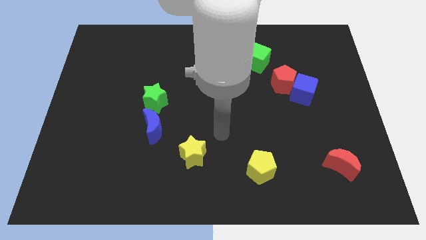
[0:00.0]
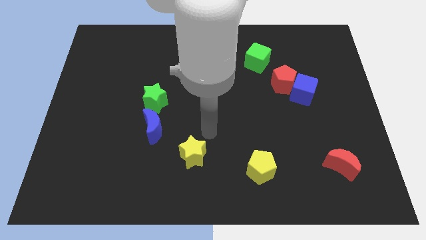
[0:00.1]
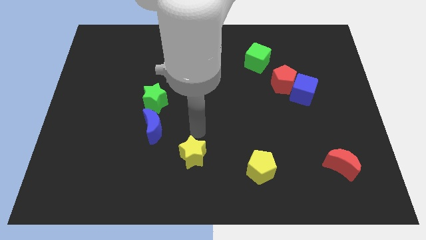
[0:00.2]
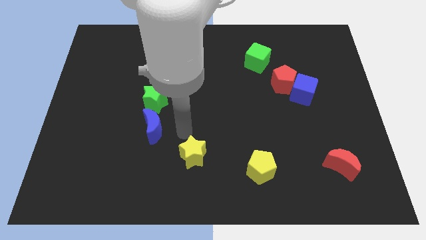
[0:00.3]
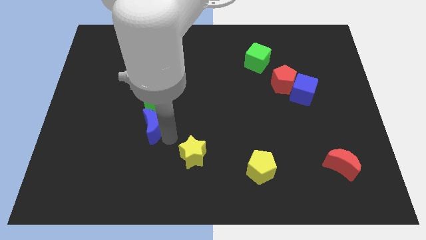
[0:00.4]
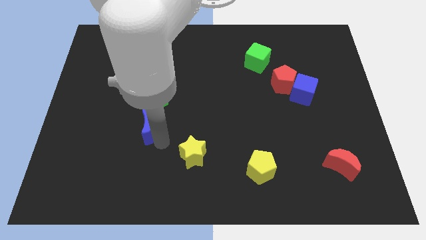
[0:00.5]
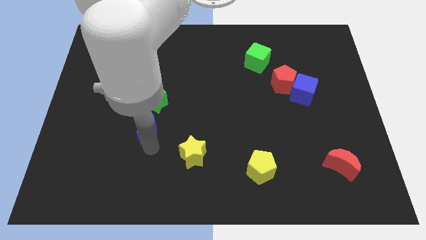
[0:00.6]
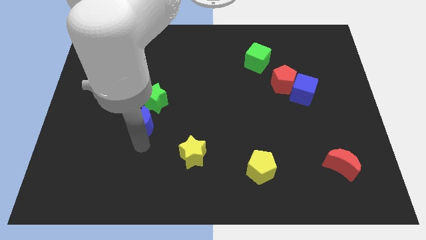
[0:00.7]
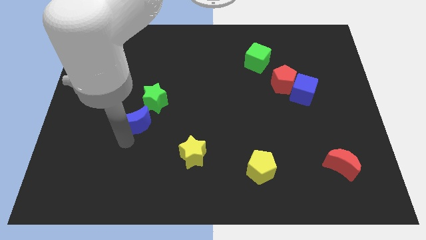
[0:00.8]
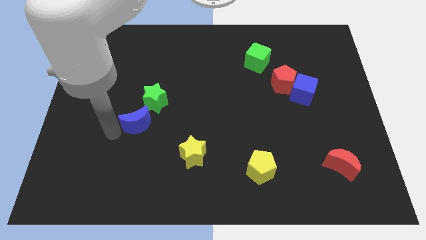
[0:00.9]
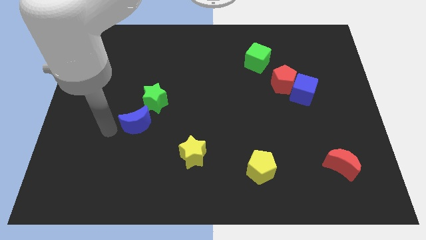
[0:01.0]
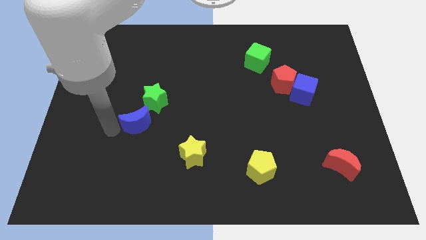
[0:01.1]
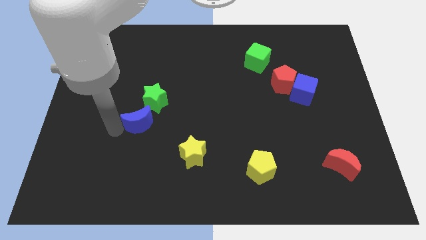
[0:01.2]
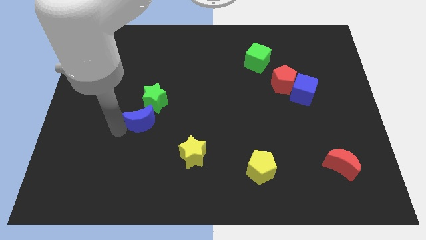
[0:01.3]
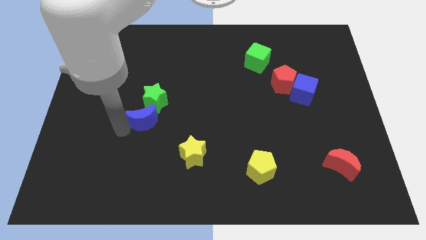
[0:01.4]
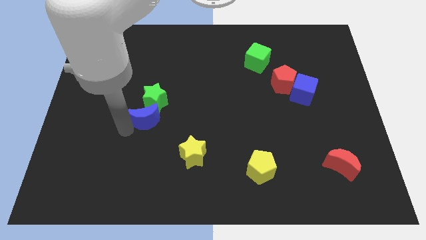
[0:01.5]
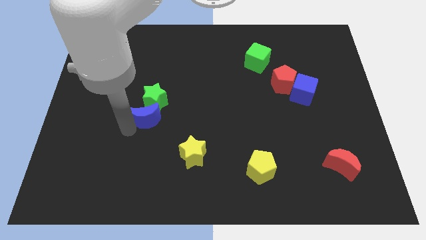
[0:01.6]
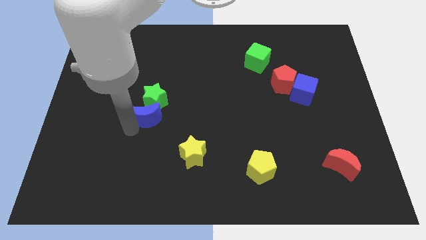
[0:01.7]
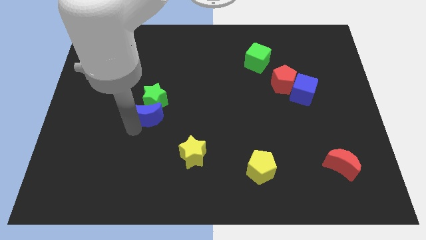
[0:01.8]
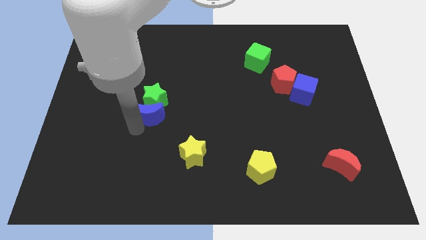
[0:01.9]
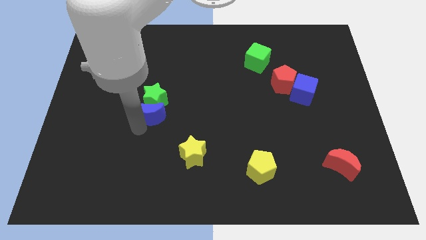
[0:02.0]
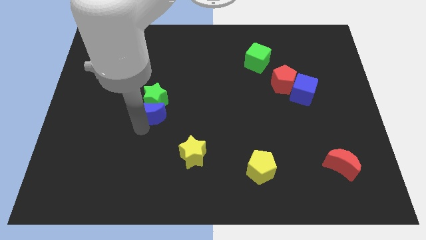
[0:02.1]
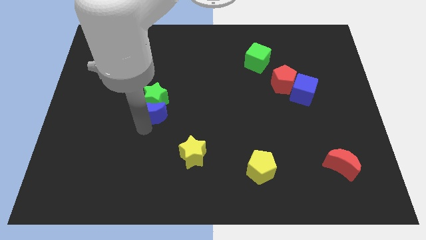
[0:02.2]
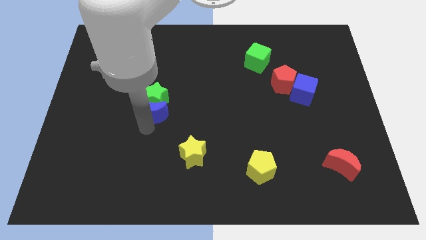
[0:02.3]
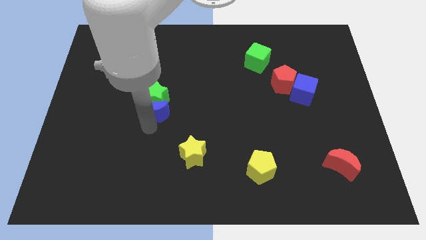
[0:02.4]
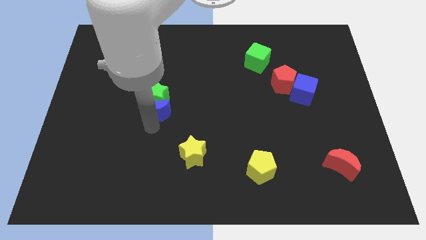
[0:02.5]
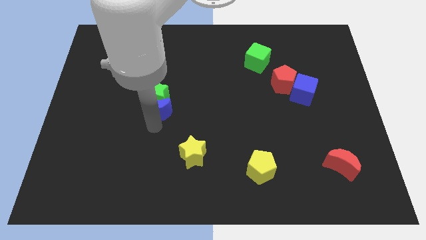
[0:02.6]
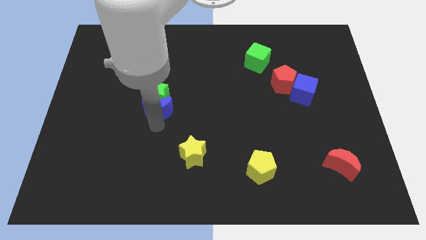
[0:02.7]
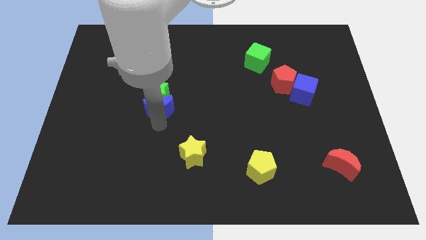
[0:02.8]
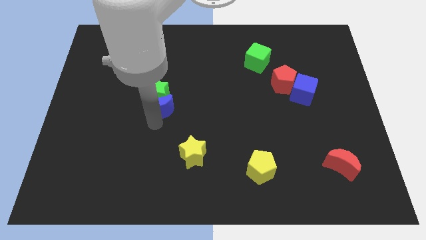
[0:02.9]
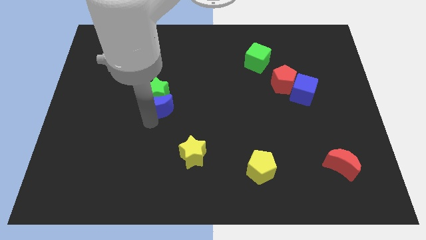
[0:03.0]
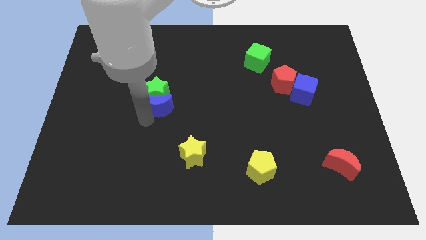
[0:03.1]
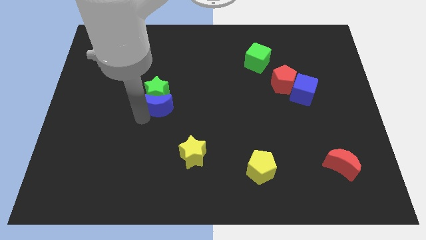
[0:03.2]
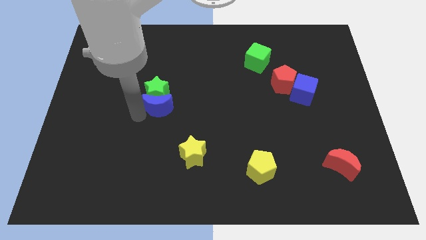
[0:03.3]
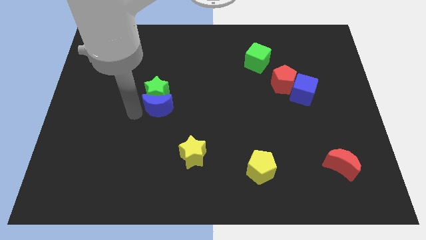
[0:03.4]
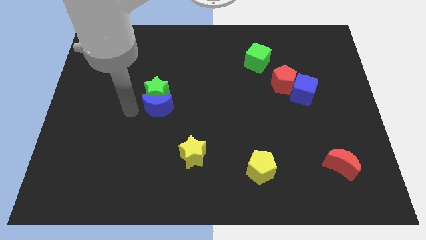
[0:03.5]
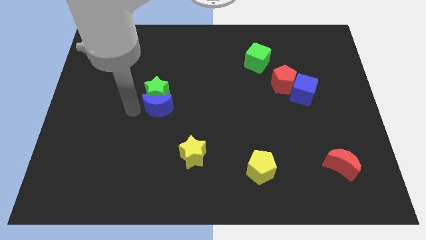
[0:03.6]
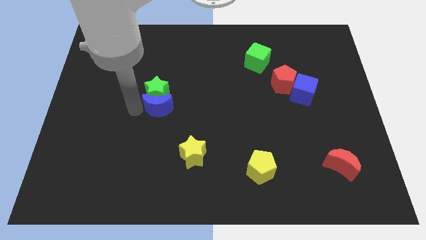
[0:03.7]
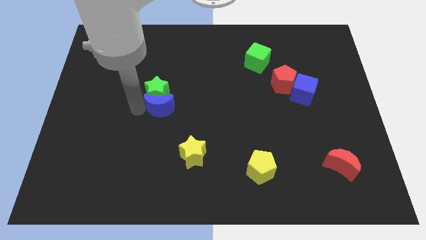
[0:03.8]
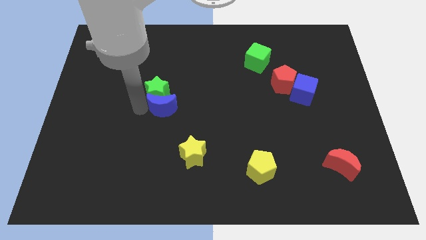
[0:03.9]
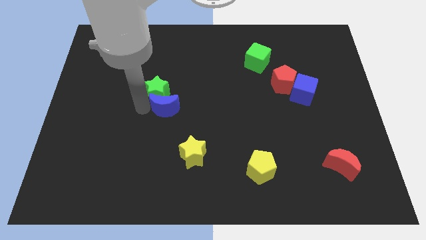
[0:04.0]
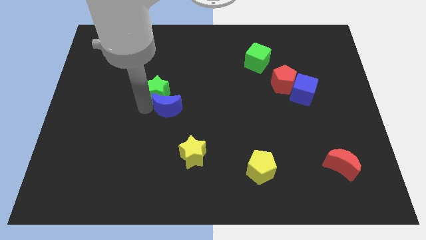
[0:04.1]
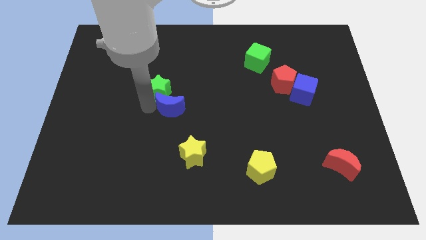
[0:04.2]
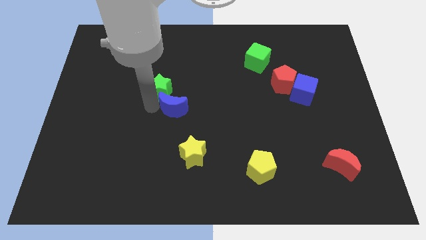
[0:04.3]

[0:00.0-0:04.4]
move the blue moon upwards and to the right diagonally a little bit

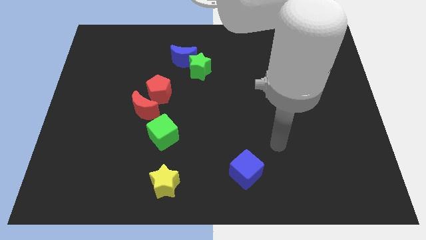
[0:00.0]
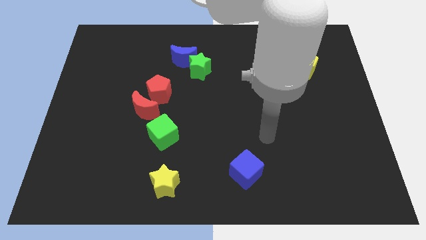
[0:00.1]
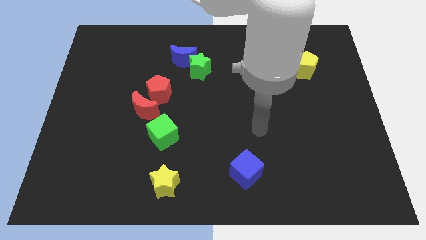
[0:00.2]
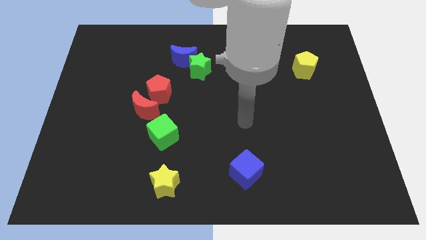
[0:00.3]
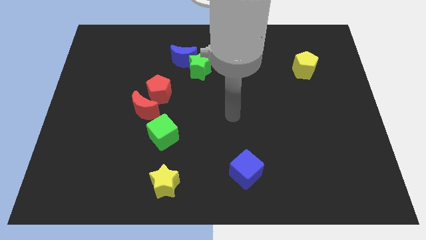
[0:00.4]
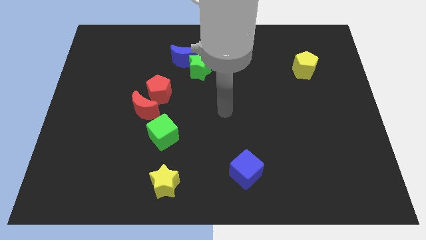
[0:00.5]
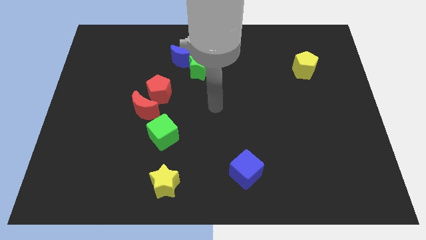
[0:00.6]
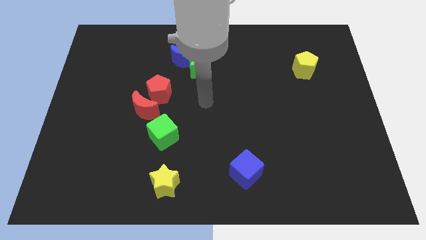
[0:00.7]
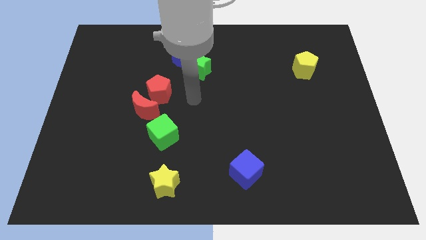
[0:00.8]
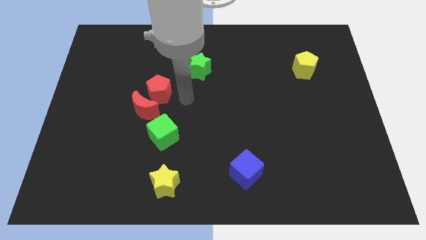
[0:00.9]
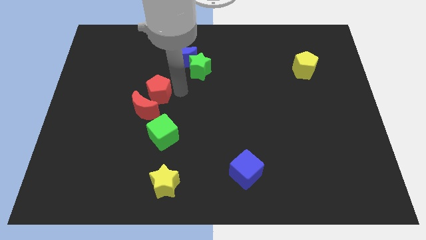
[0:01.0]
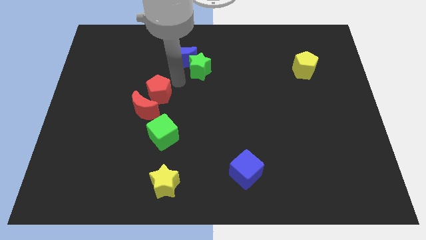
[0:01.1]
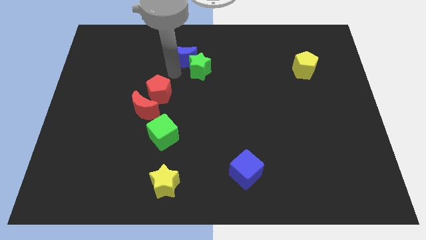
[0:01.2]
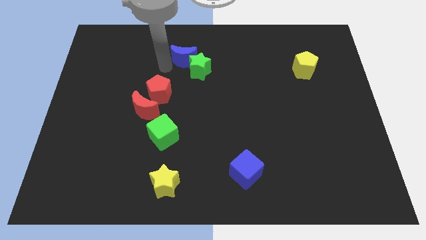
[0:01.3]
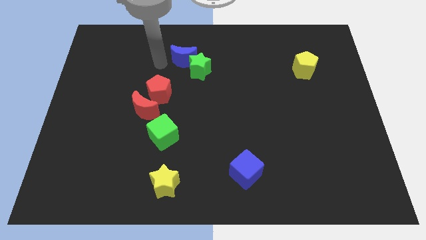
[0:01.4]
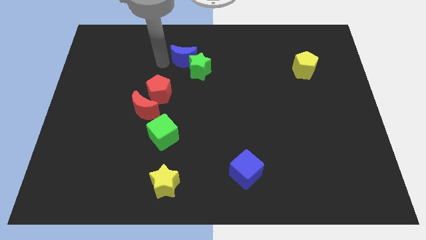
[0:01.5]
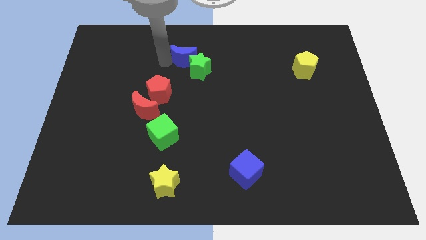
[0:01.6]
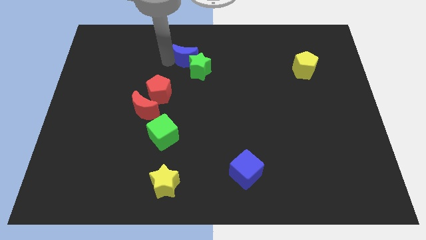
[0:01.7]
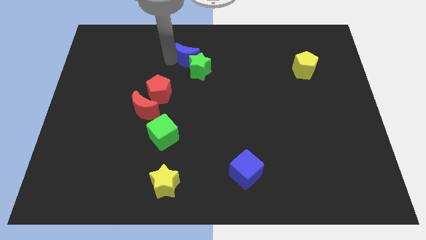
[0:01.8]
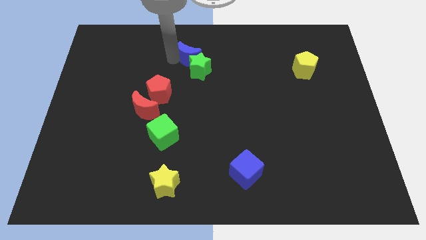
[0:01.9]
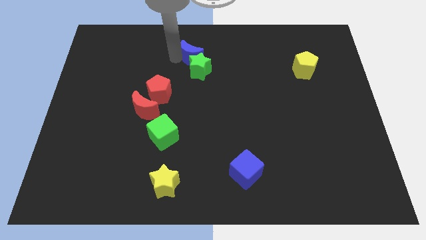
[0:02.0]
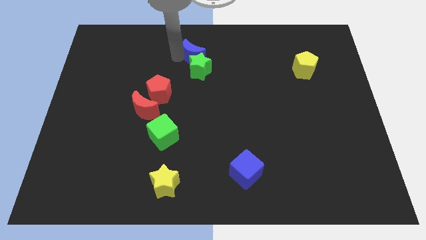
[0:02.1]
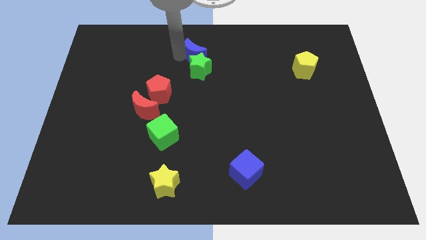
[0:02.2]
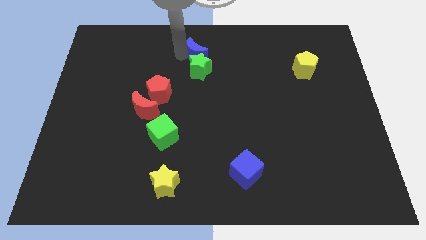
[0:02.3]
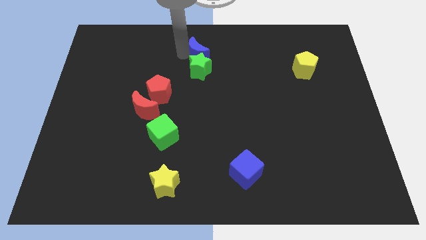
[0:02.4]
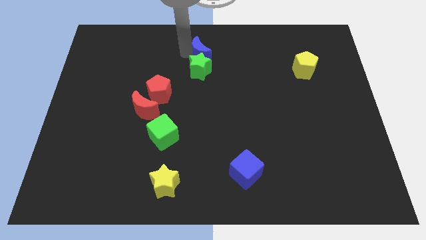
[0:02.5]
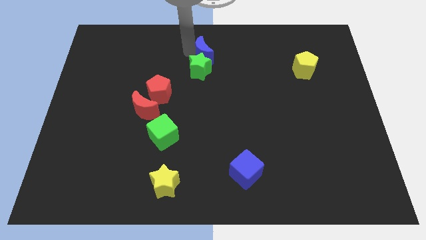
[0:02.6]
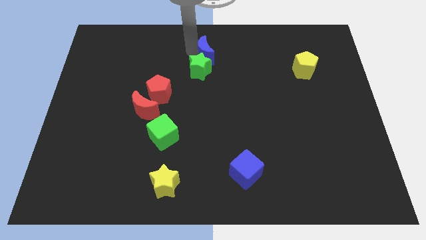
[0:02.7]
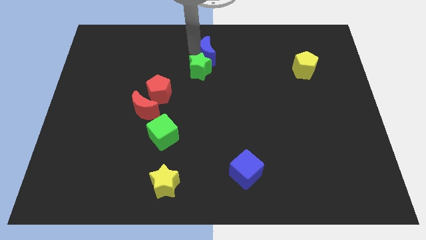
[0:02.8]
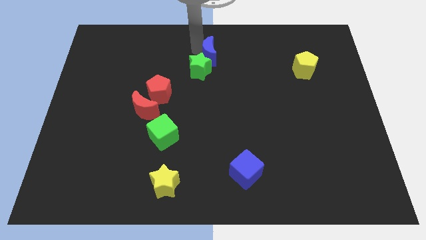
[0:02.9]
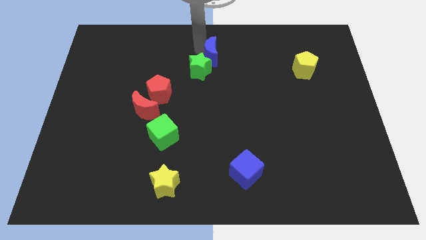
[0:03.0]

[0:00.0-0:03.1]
slightly push the blue moon to the right

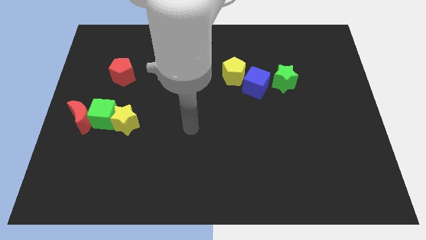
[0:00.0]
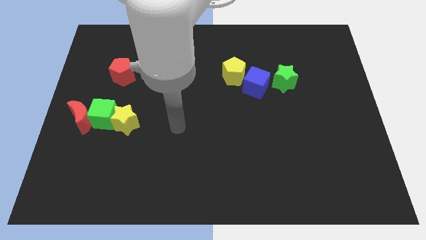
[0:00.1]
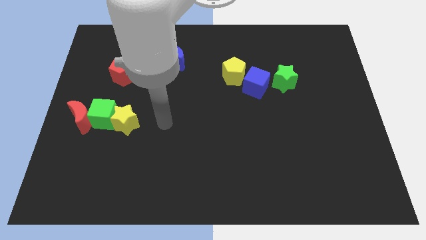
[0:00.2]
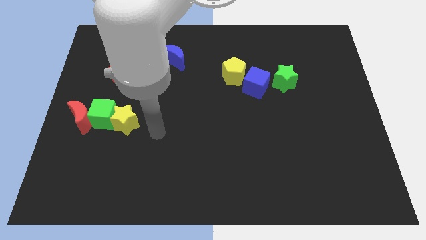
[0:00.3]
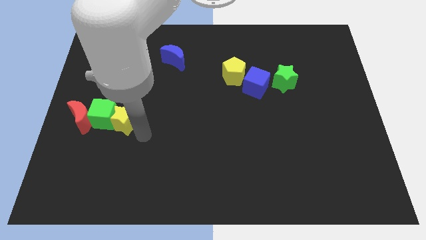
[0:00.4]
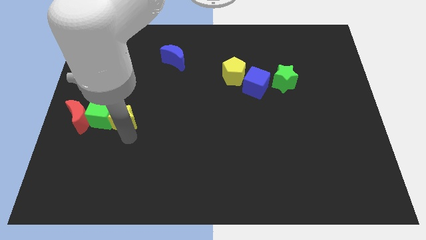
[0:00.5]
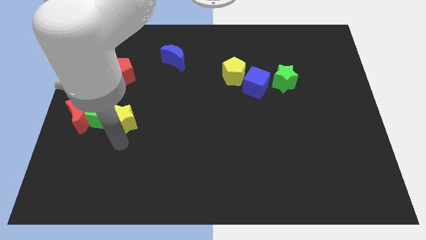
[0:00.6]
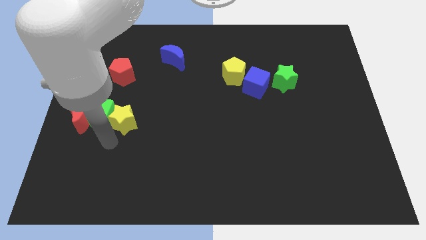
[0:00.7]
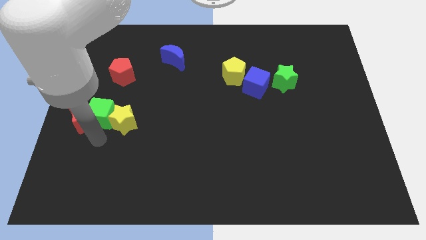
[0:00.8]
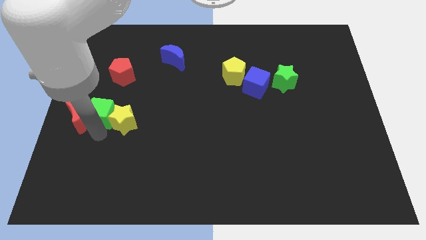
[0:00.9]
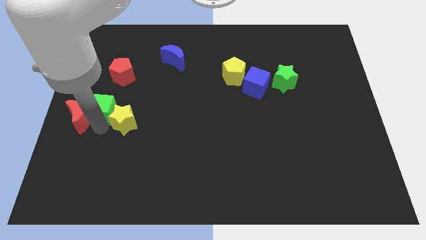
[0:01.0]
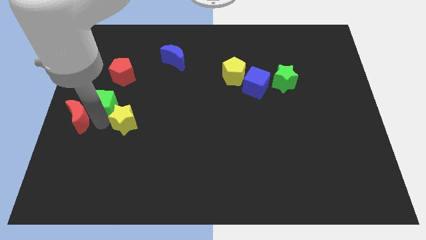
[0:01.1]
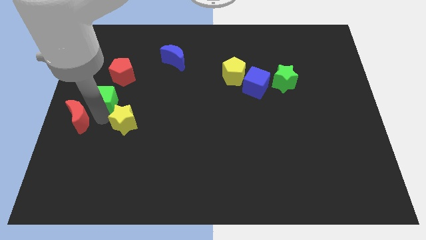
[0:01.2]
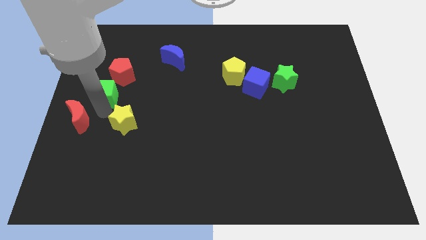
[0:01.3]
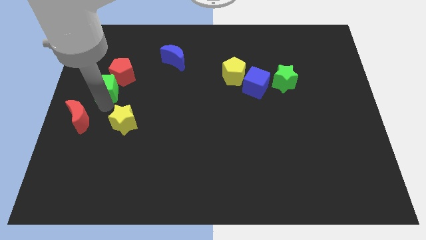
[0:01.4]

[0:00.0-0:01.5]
push the green cube up a little bit
